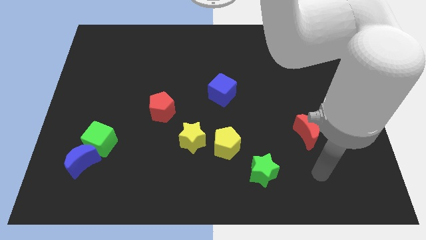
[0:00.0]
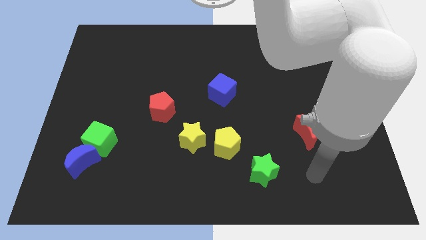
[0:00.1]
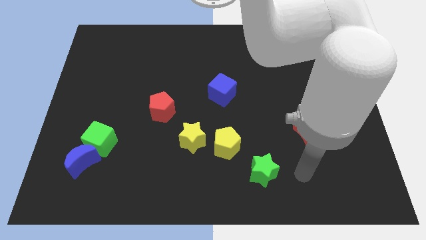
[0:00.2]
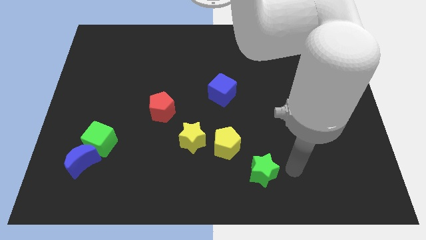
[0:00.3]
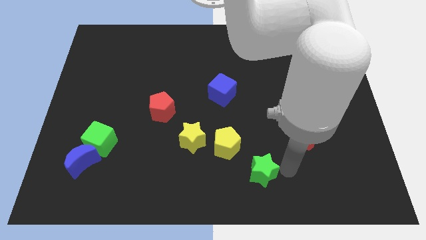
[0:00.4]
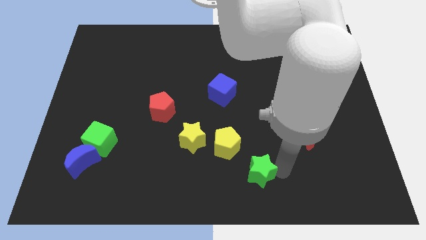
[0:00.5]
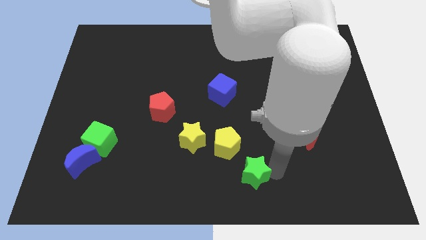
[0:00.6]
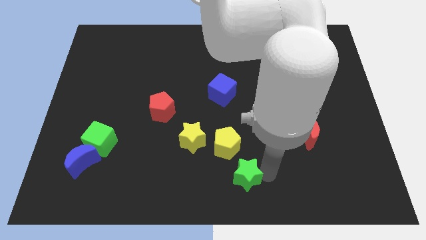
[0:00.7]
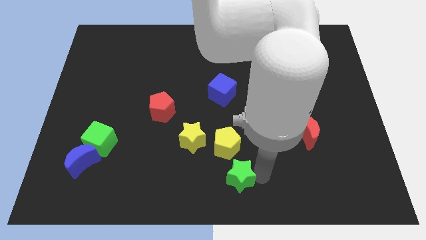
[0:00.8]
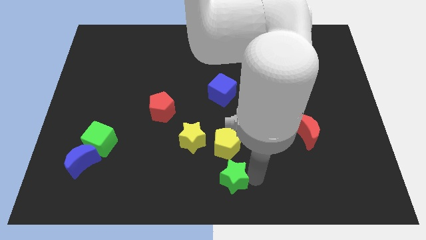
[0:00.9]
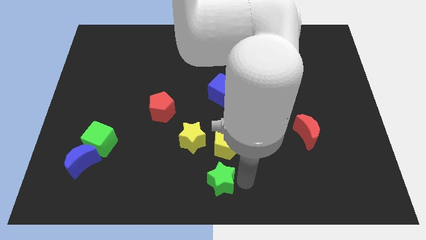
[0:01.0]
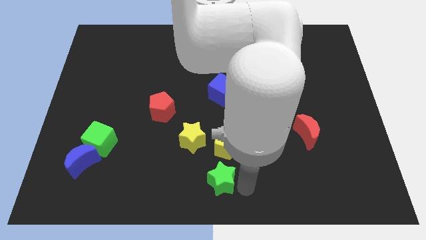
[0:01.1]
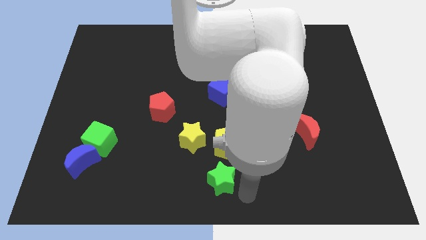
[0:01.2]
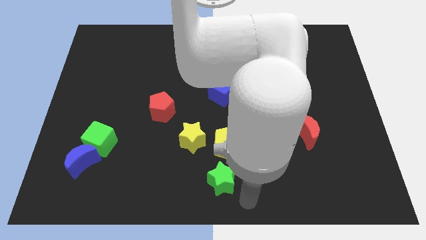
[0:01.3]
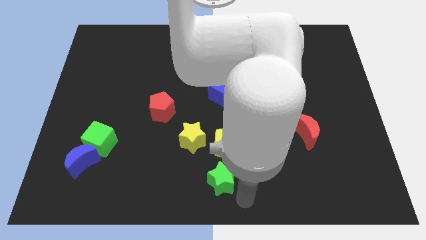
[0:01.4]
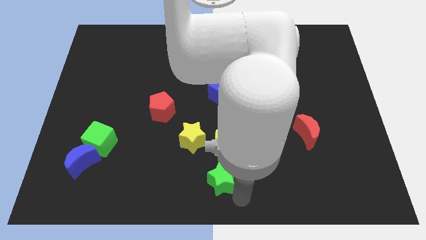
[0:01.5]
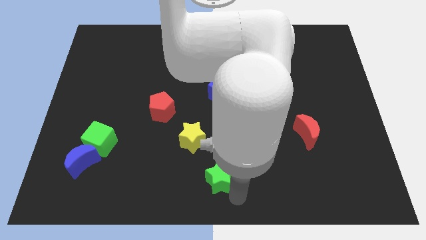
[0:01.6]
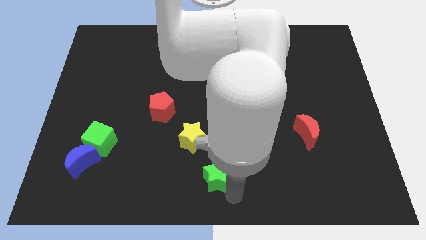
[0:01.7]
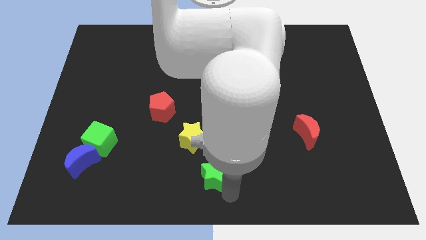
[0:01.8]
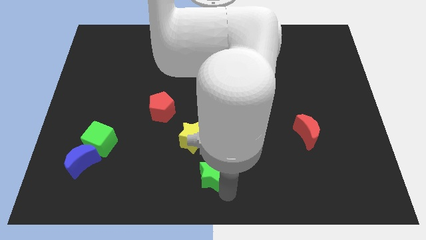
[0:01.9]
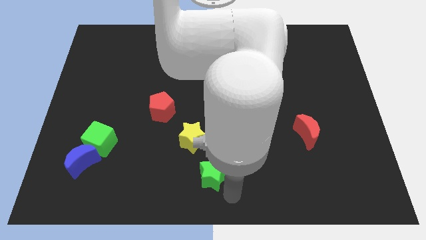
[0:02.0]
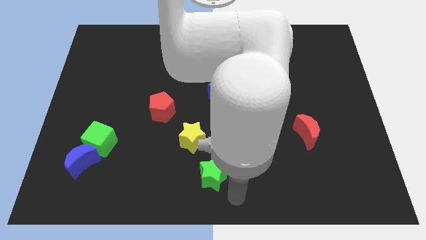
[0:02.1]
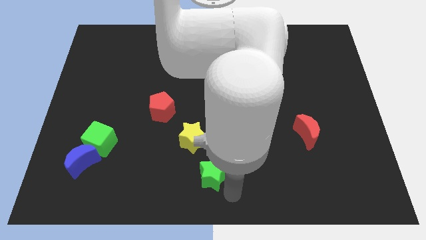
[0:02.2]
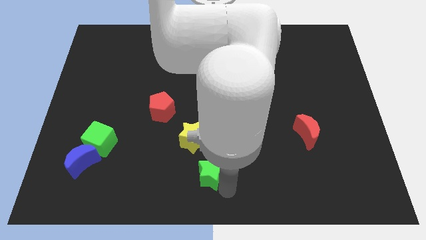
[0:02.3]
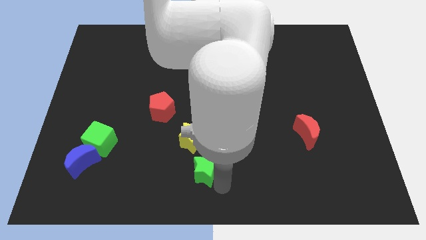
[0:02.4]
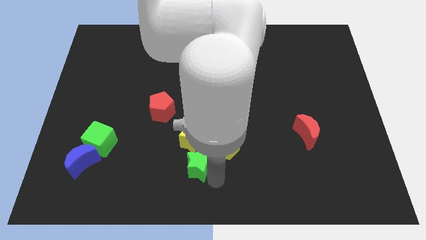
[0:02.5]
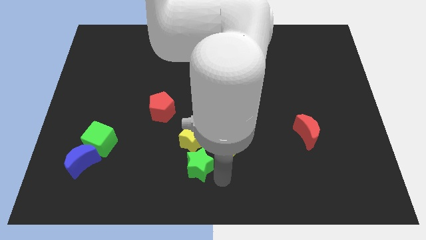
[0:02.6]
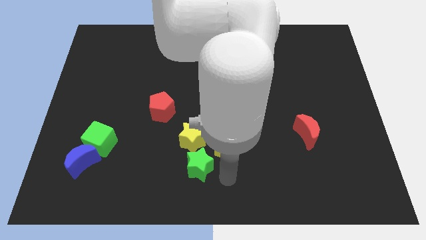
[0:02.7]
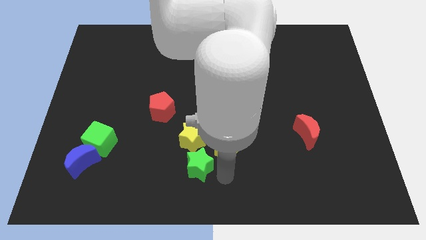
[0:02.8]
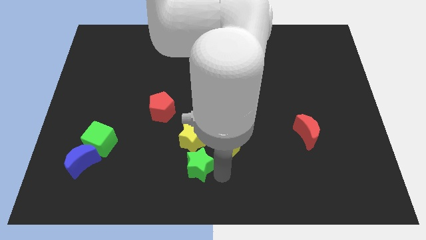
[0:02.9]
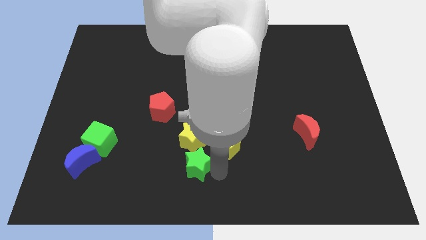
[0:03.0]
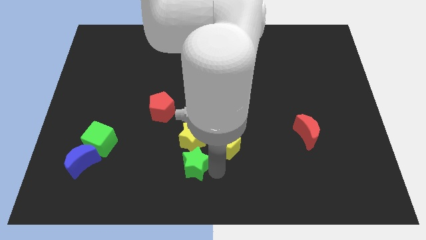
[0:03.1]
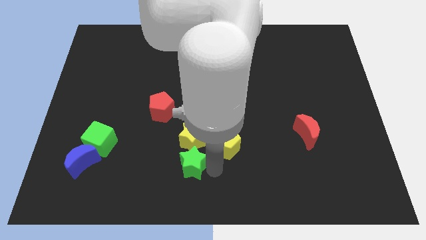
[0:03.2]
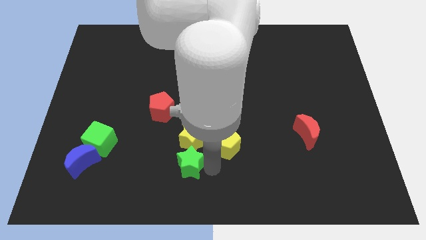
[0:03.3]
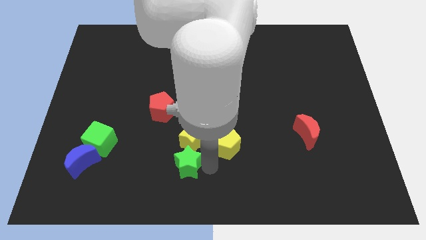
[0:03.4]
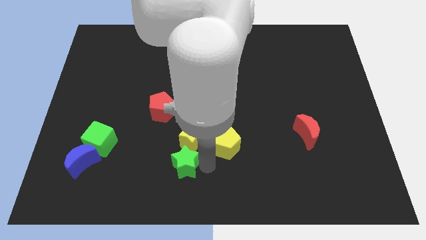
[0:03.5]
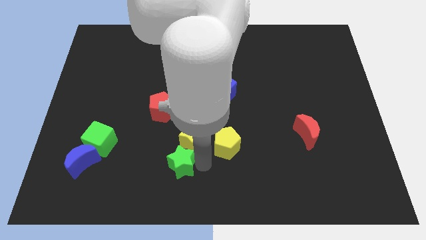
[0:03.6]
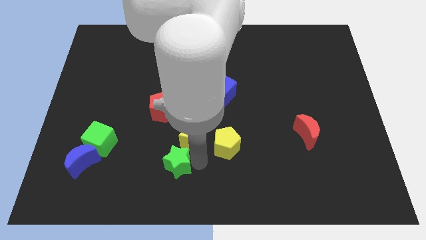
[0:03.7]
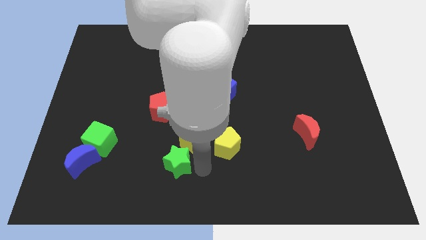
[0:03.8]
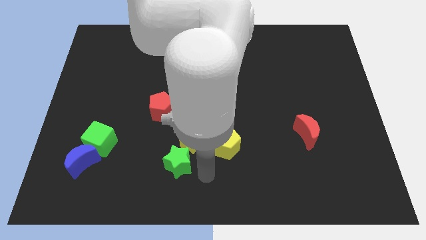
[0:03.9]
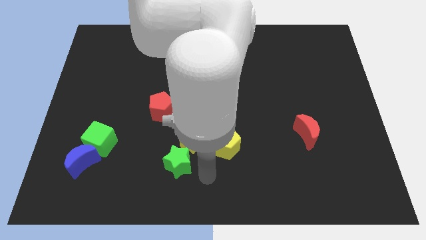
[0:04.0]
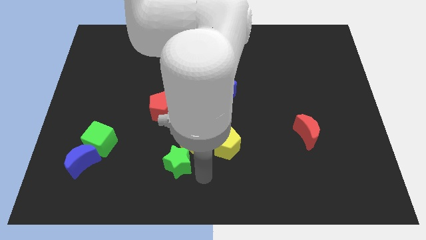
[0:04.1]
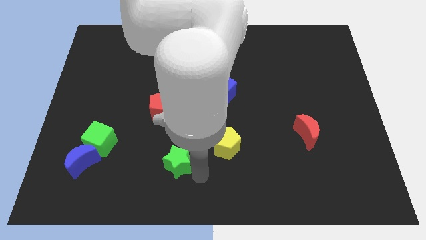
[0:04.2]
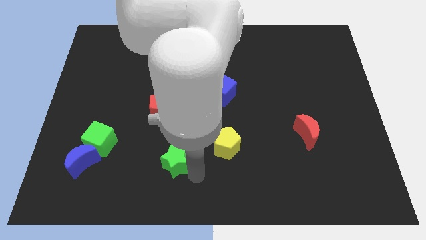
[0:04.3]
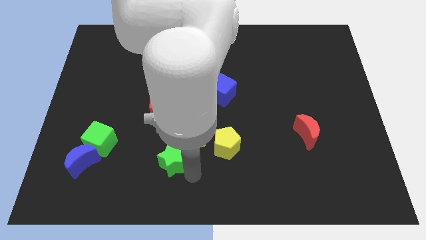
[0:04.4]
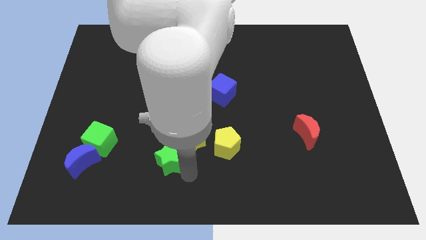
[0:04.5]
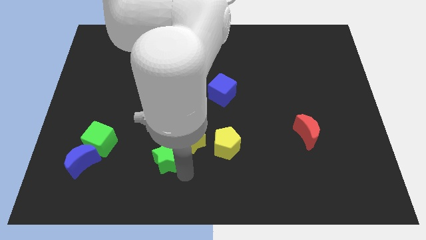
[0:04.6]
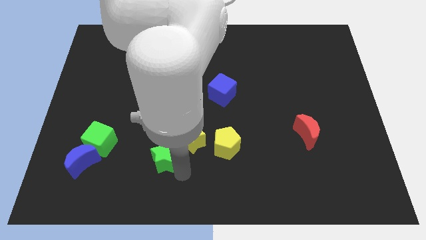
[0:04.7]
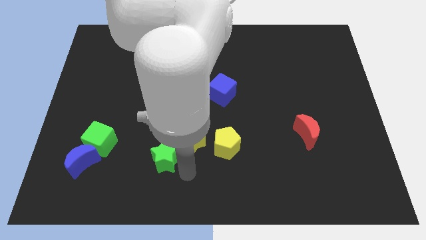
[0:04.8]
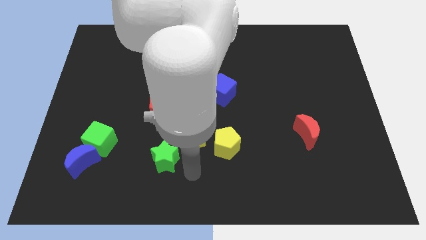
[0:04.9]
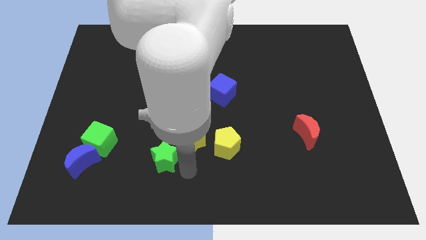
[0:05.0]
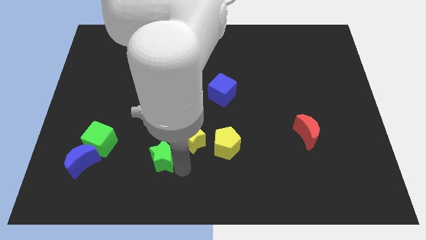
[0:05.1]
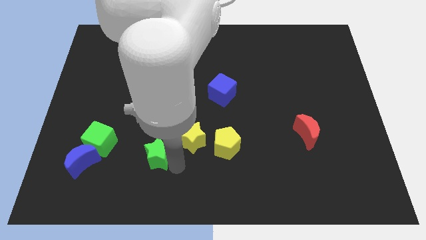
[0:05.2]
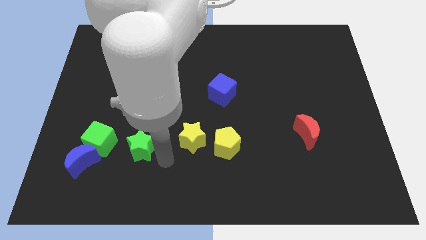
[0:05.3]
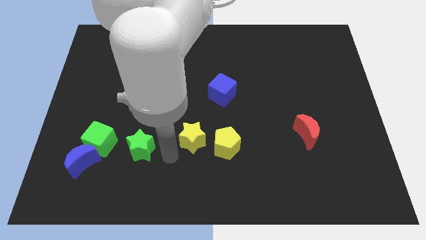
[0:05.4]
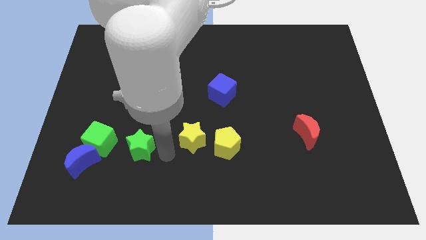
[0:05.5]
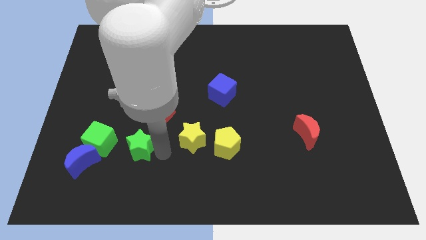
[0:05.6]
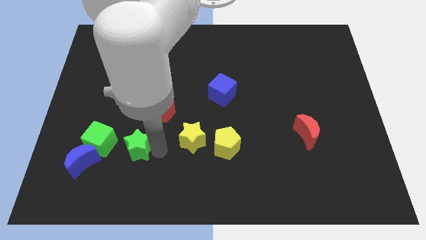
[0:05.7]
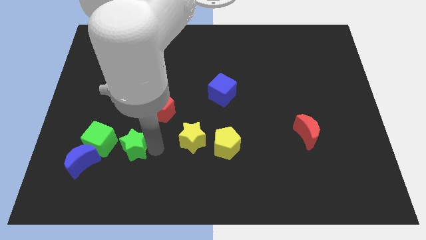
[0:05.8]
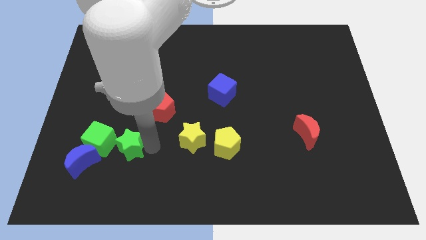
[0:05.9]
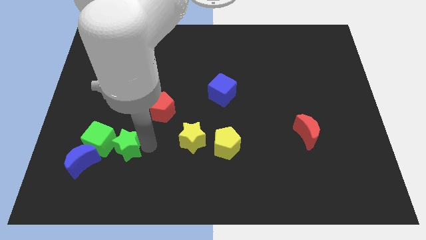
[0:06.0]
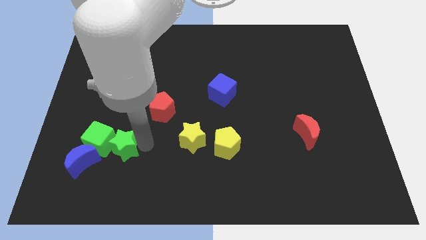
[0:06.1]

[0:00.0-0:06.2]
put the green star next to the green cube
